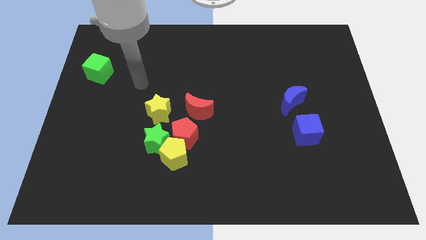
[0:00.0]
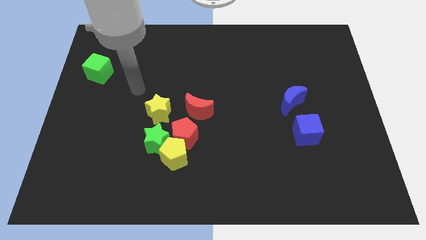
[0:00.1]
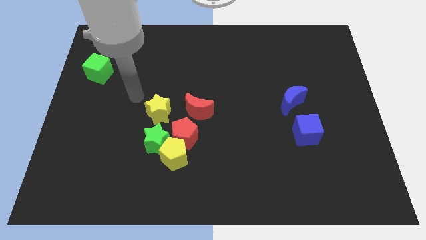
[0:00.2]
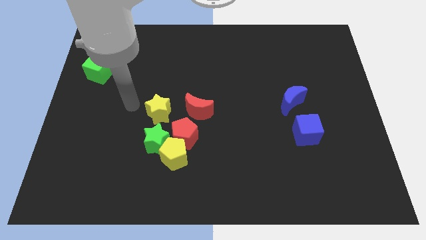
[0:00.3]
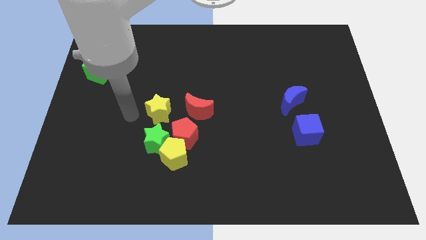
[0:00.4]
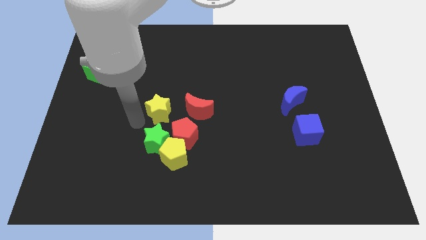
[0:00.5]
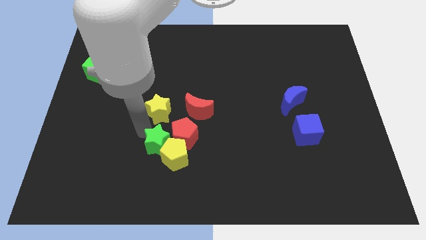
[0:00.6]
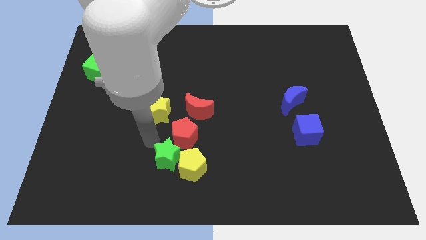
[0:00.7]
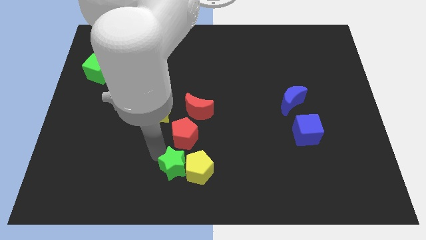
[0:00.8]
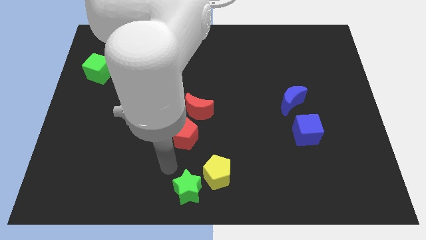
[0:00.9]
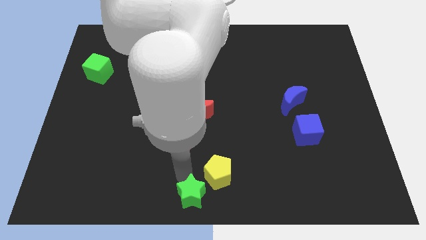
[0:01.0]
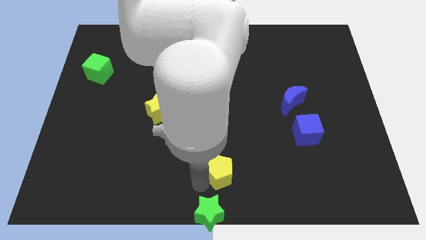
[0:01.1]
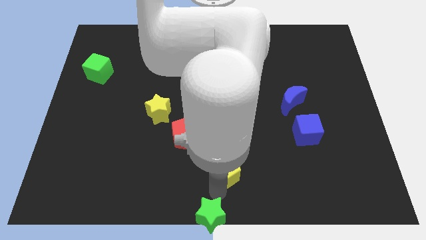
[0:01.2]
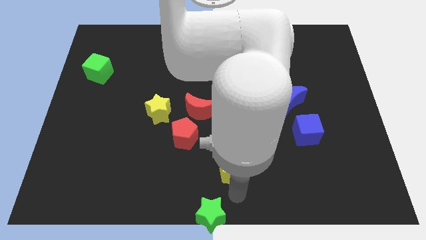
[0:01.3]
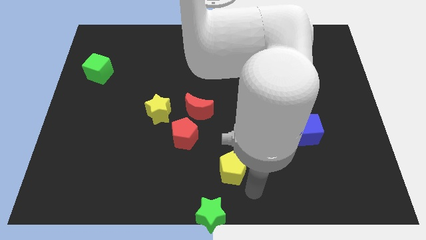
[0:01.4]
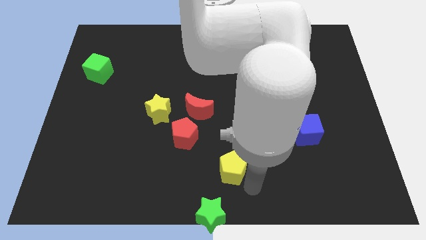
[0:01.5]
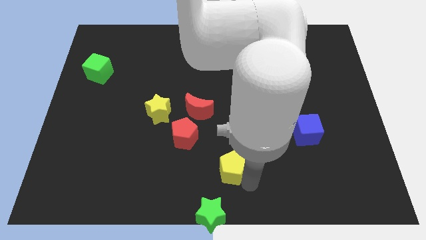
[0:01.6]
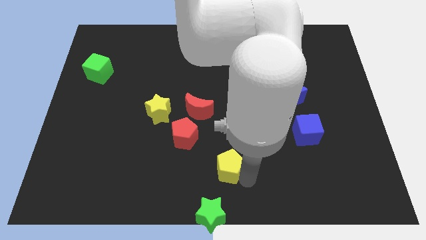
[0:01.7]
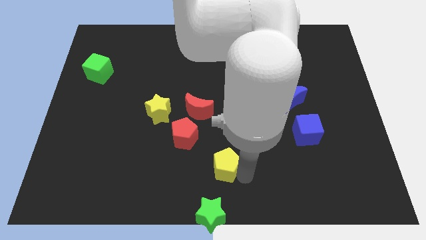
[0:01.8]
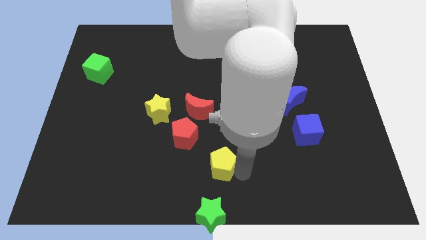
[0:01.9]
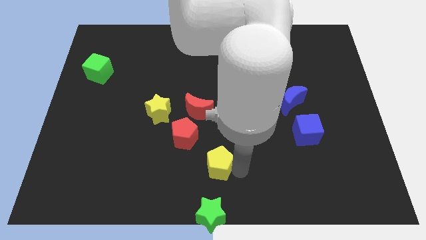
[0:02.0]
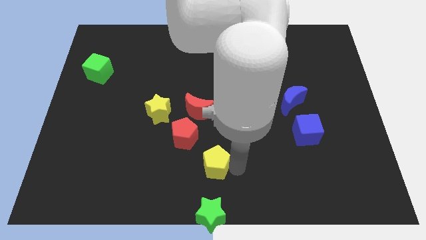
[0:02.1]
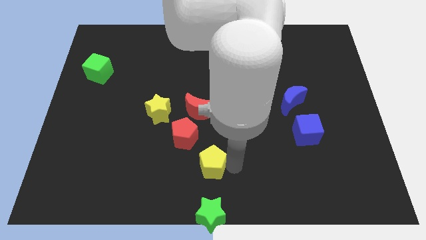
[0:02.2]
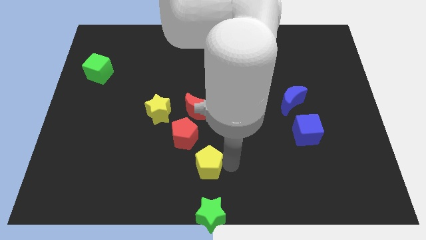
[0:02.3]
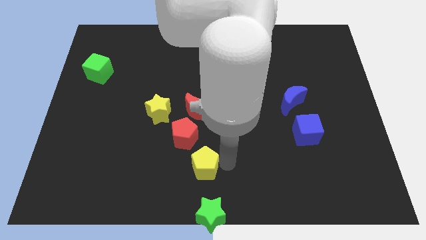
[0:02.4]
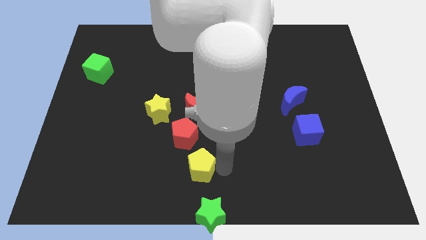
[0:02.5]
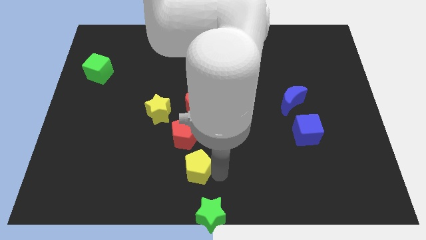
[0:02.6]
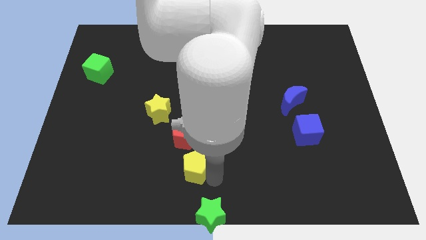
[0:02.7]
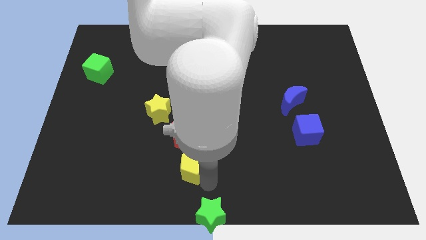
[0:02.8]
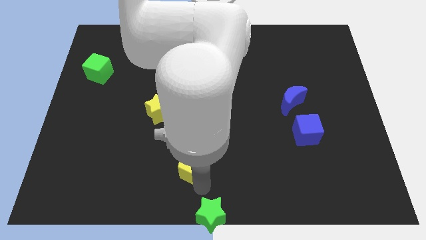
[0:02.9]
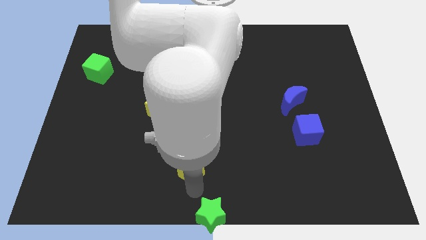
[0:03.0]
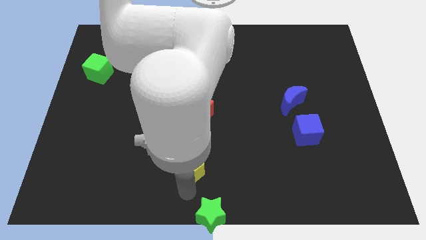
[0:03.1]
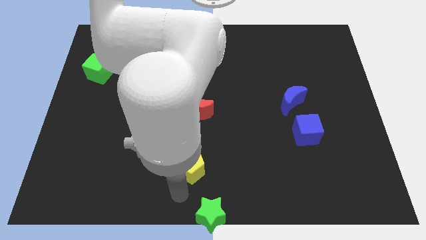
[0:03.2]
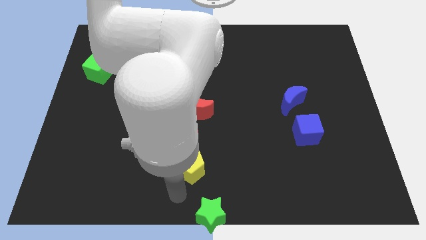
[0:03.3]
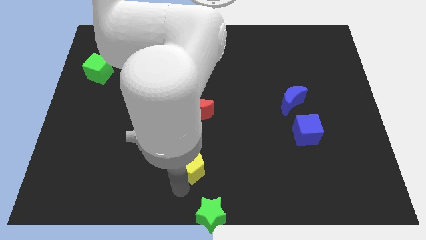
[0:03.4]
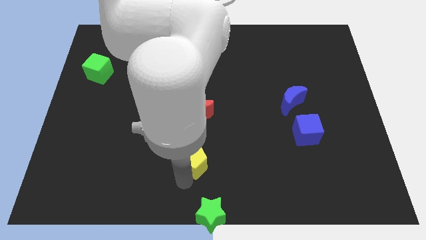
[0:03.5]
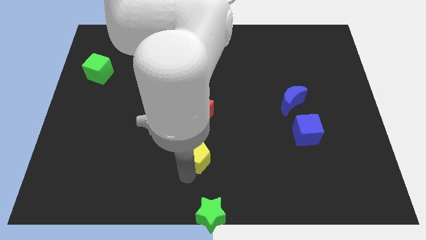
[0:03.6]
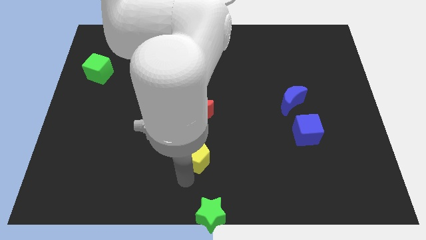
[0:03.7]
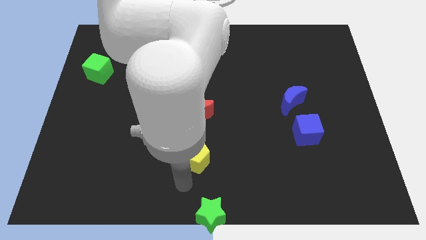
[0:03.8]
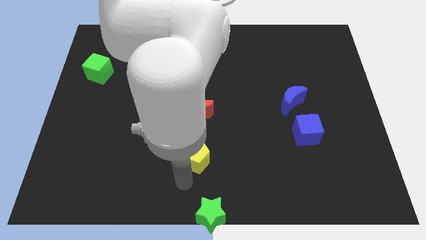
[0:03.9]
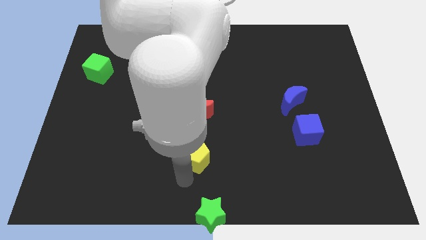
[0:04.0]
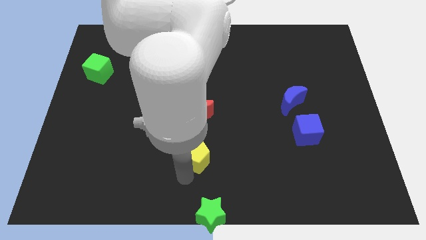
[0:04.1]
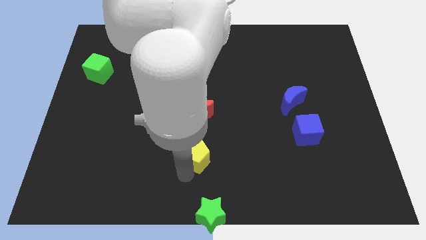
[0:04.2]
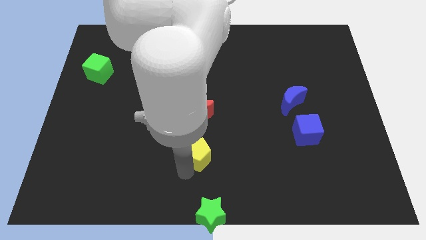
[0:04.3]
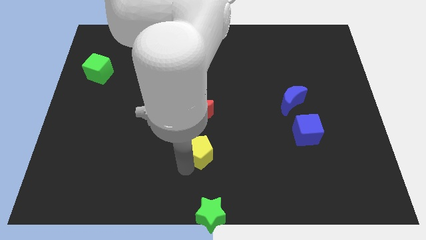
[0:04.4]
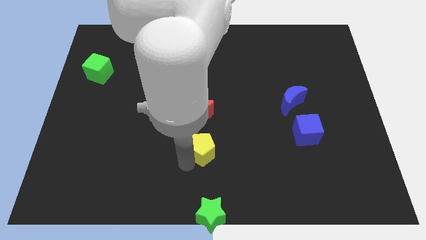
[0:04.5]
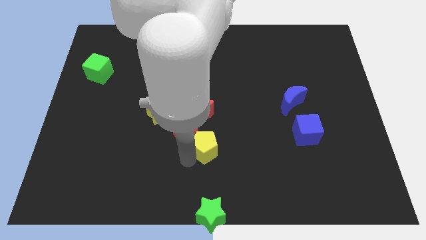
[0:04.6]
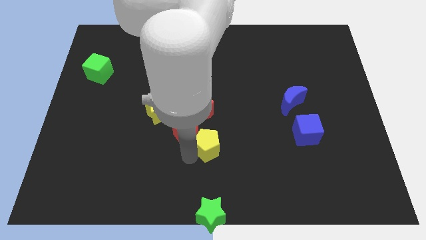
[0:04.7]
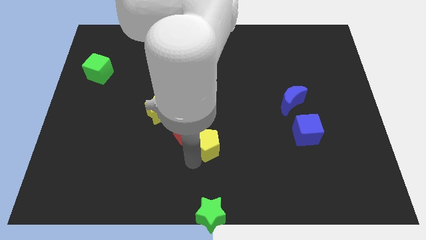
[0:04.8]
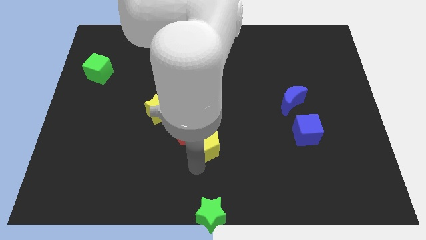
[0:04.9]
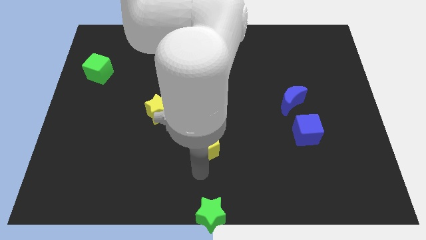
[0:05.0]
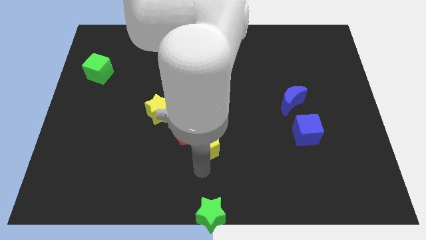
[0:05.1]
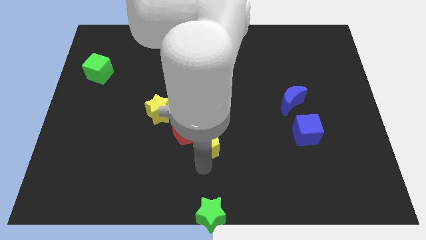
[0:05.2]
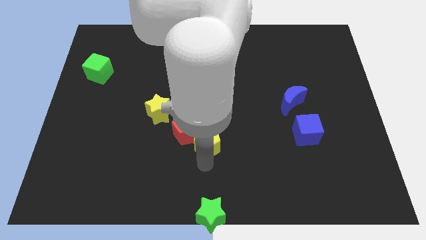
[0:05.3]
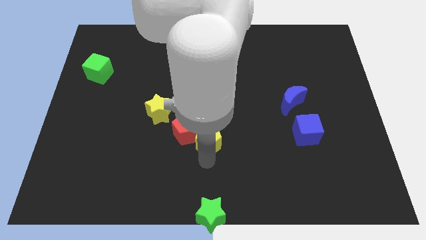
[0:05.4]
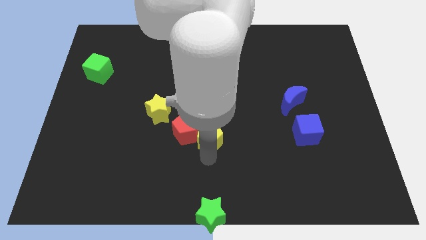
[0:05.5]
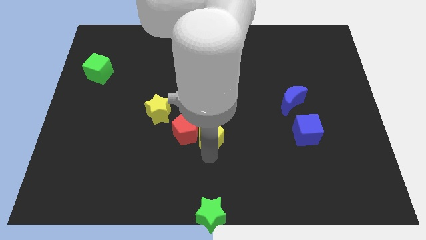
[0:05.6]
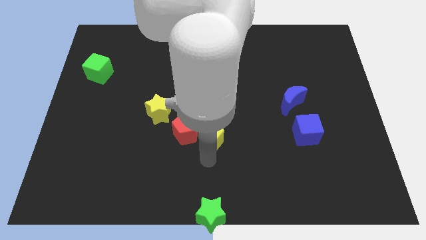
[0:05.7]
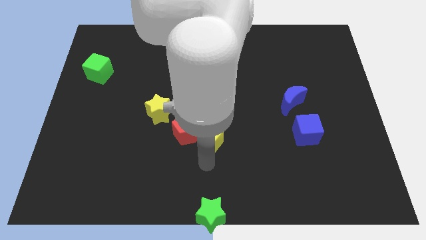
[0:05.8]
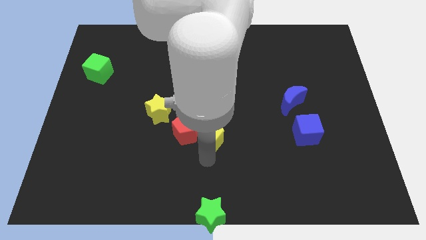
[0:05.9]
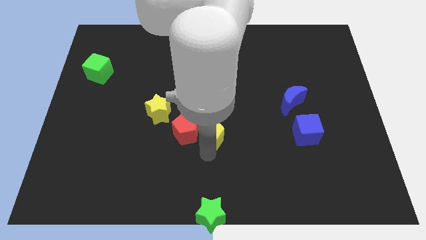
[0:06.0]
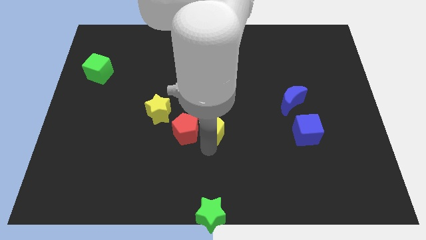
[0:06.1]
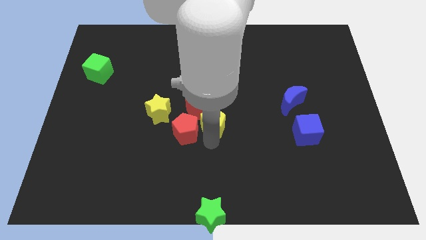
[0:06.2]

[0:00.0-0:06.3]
move the yellow pentagon towards the red moon

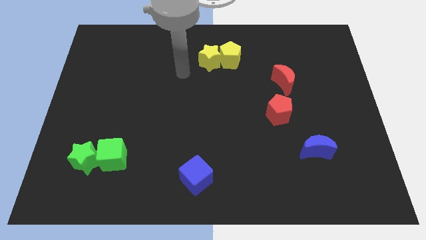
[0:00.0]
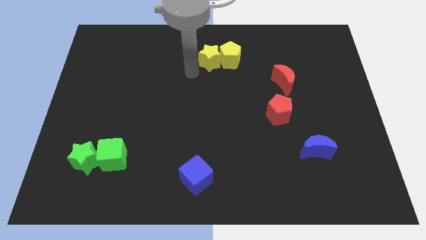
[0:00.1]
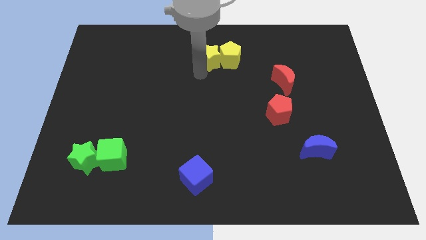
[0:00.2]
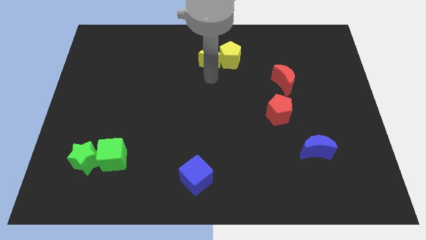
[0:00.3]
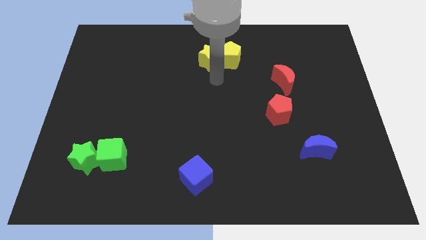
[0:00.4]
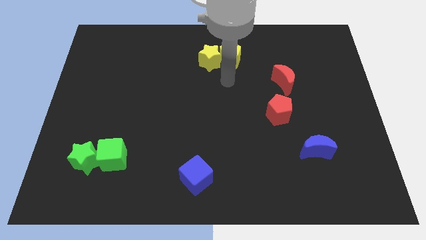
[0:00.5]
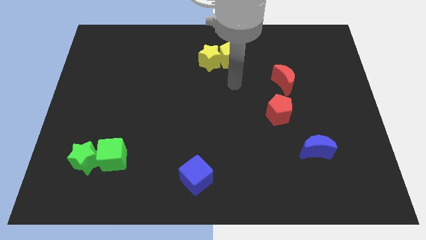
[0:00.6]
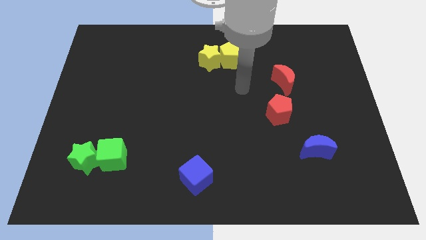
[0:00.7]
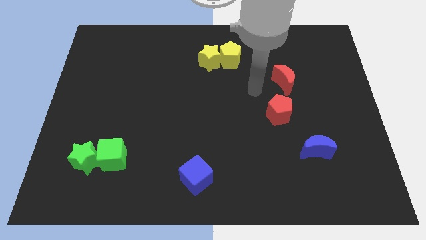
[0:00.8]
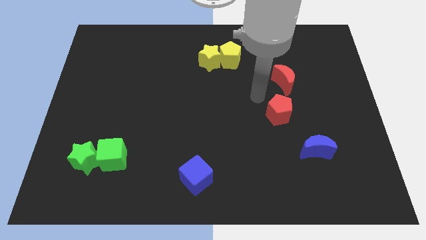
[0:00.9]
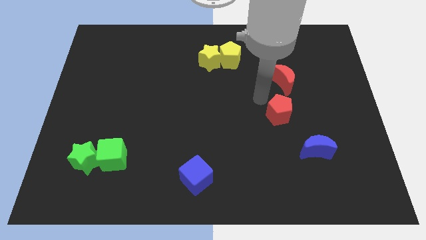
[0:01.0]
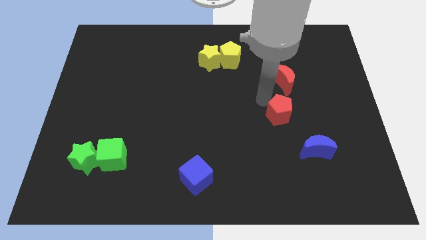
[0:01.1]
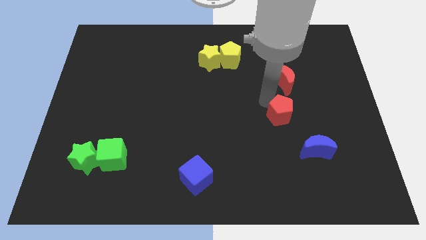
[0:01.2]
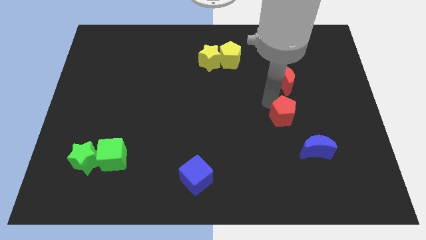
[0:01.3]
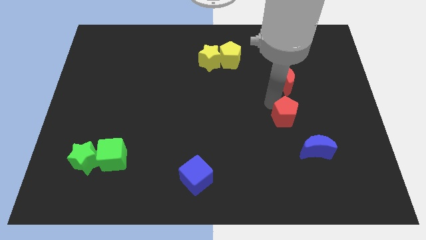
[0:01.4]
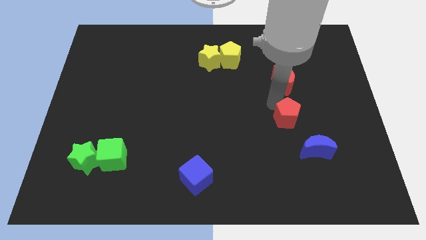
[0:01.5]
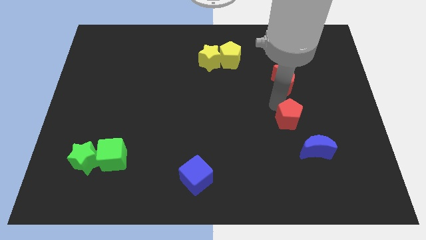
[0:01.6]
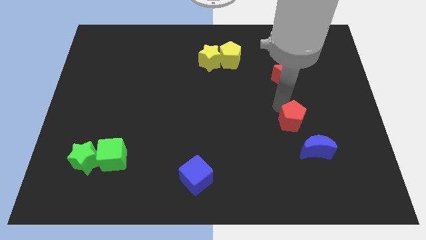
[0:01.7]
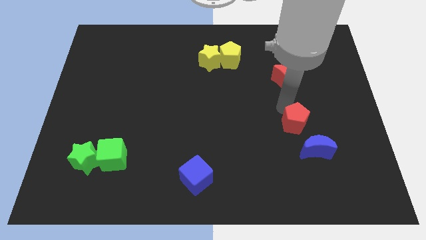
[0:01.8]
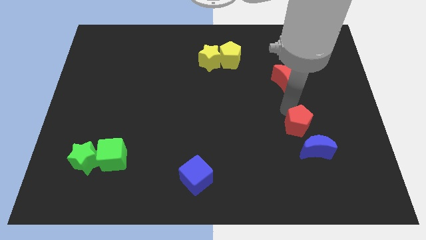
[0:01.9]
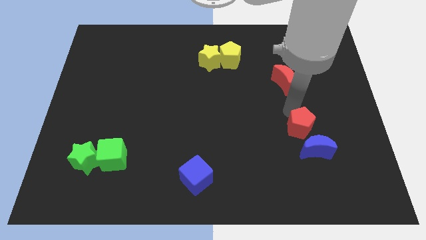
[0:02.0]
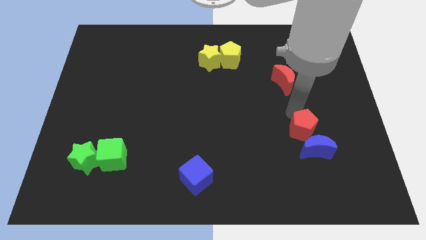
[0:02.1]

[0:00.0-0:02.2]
slide the red pentagon to the blue moon
